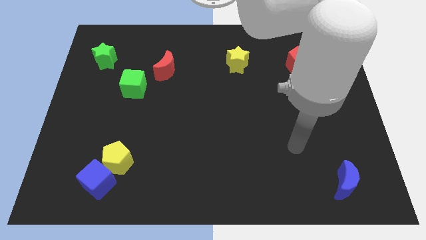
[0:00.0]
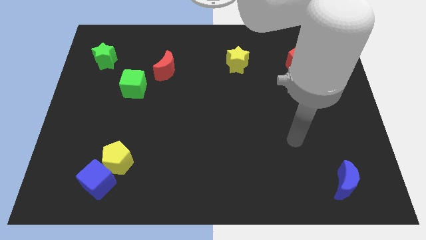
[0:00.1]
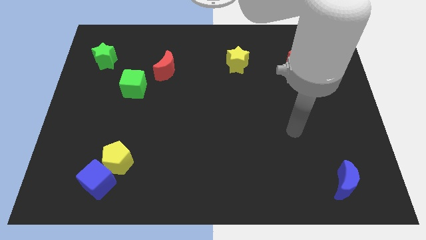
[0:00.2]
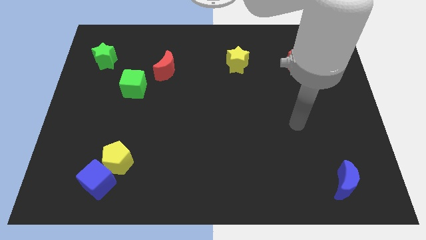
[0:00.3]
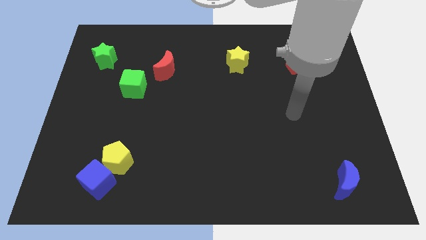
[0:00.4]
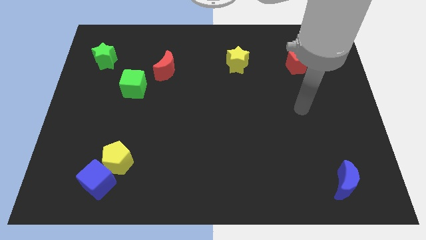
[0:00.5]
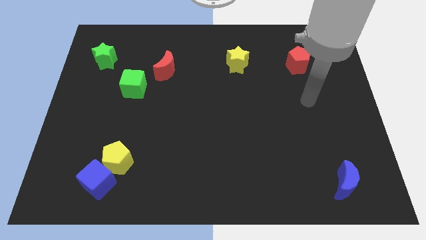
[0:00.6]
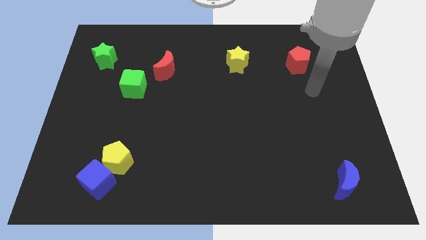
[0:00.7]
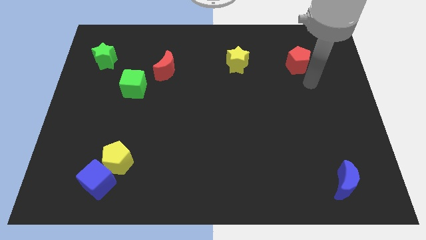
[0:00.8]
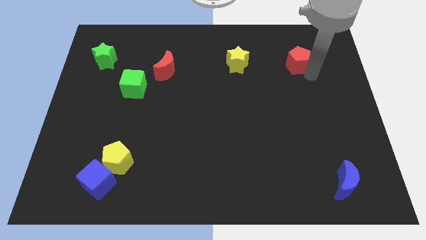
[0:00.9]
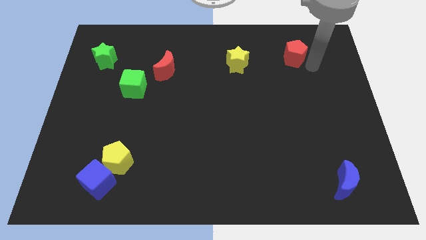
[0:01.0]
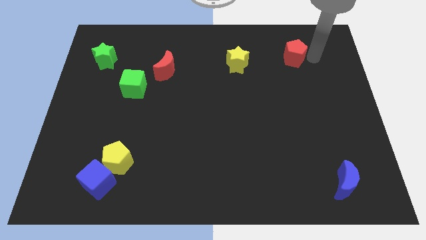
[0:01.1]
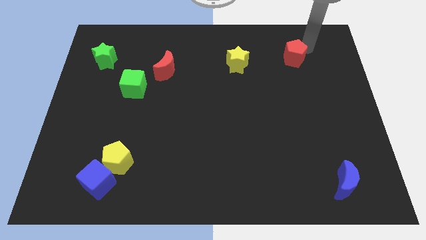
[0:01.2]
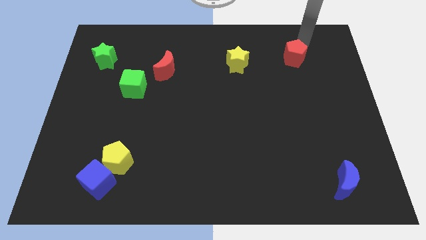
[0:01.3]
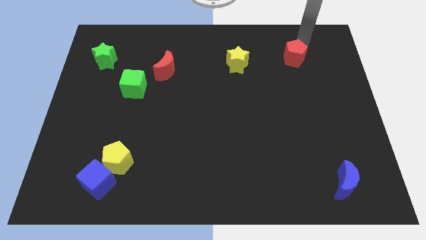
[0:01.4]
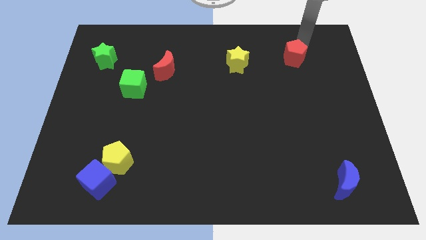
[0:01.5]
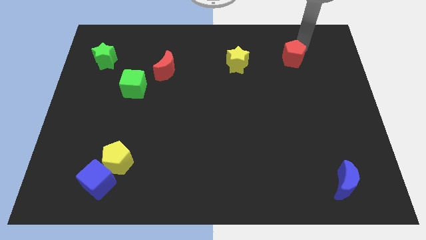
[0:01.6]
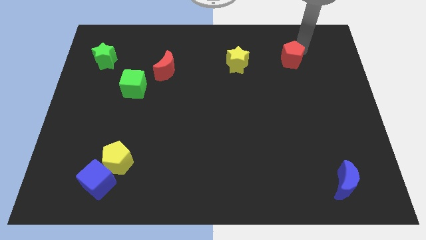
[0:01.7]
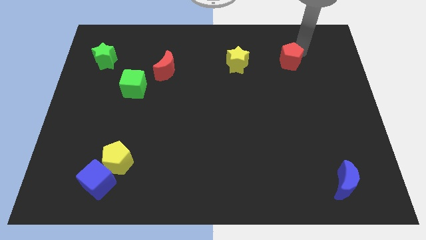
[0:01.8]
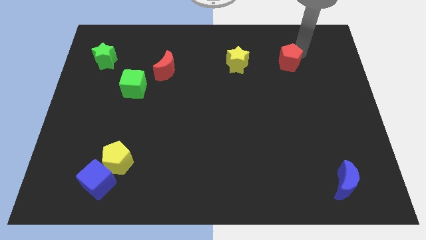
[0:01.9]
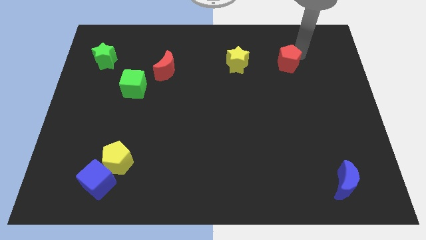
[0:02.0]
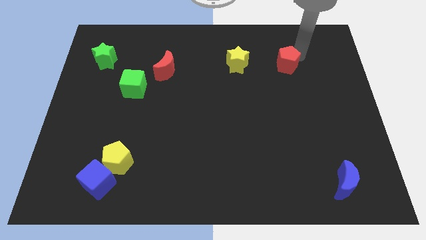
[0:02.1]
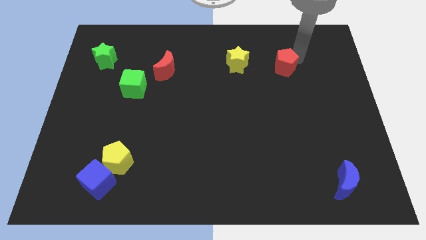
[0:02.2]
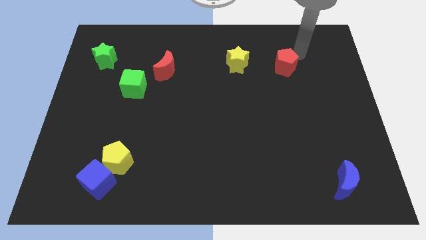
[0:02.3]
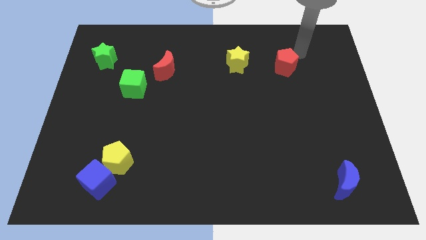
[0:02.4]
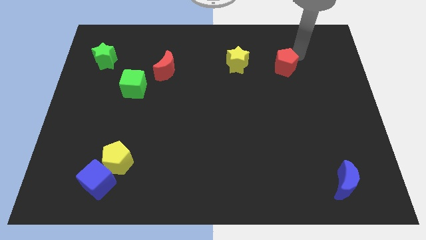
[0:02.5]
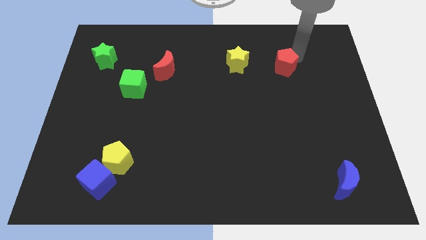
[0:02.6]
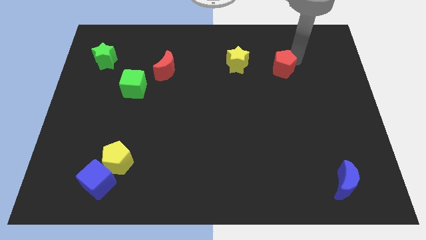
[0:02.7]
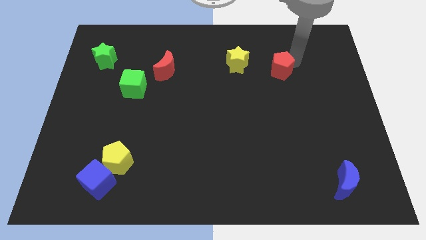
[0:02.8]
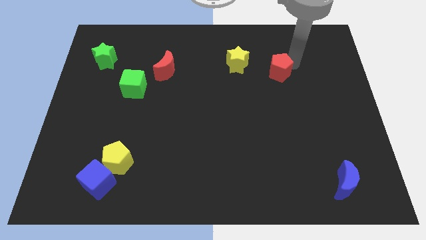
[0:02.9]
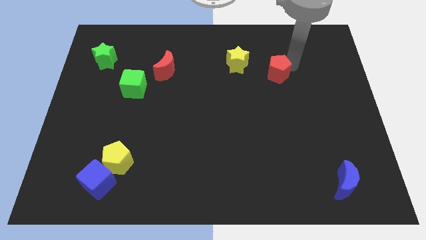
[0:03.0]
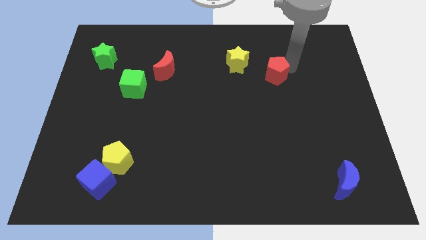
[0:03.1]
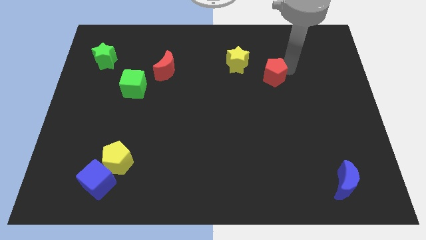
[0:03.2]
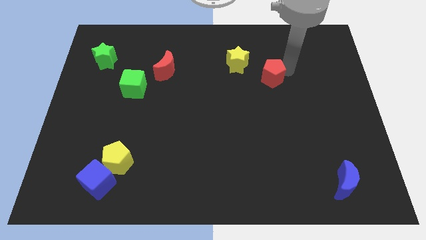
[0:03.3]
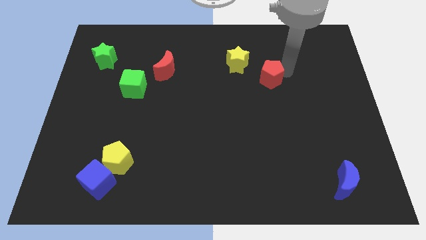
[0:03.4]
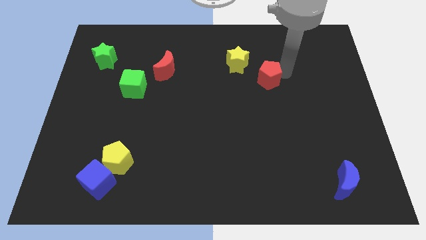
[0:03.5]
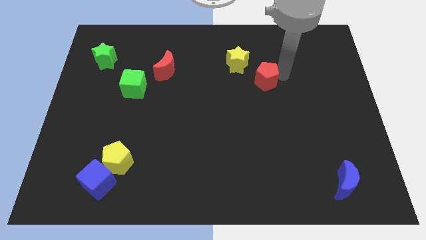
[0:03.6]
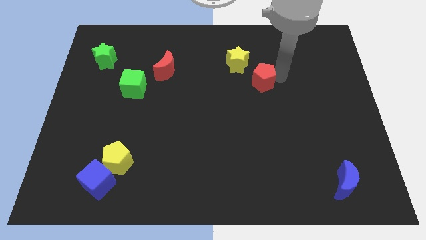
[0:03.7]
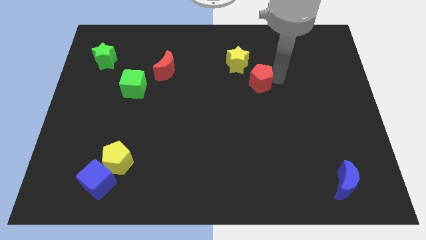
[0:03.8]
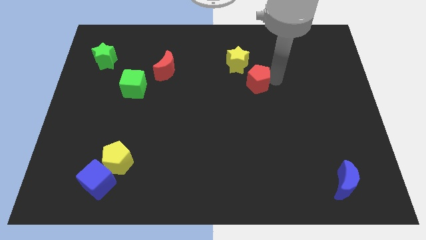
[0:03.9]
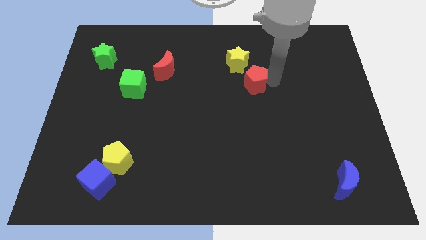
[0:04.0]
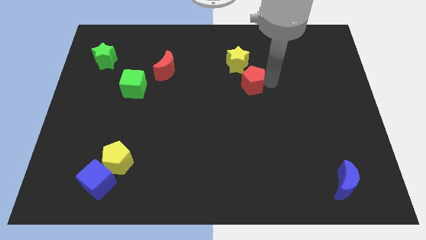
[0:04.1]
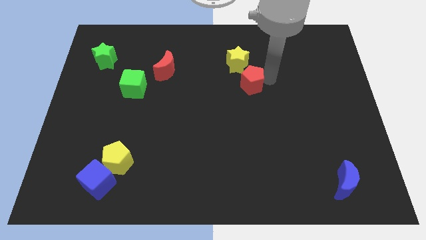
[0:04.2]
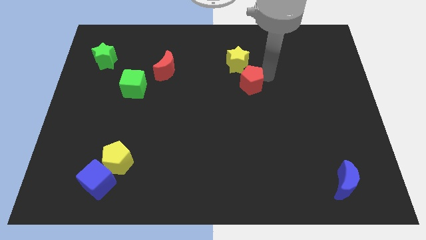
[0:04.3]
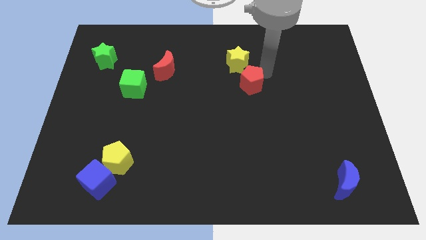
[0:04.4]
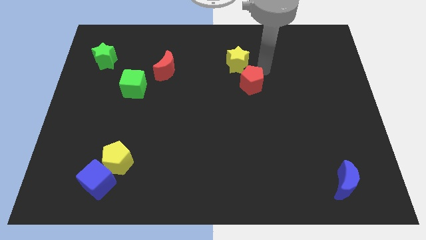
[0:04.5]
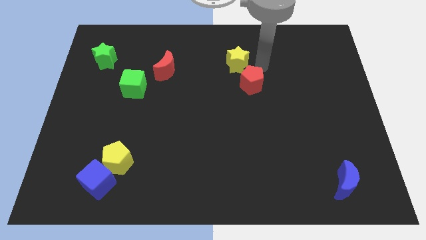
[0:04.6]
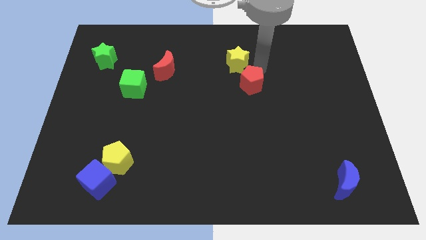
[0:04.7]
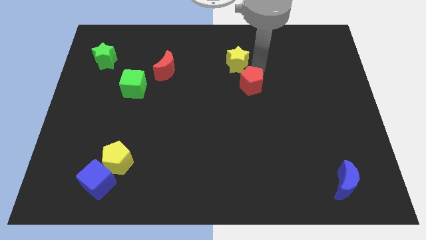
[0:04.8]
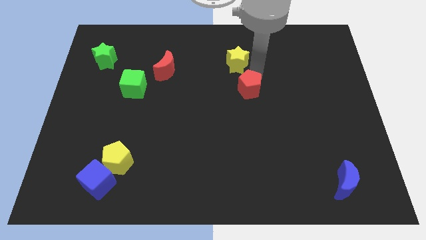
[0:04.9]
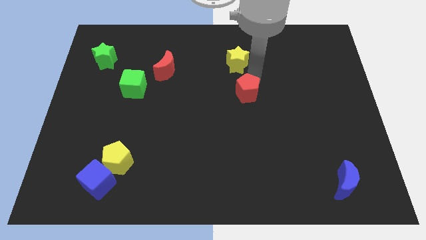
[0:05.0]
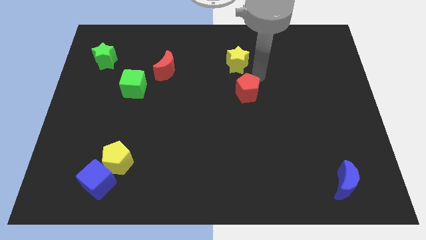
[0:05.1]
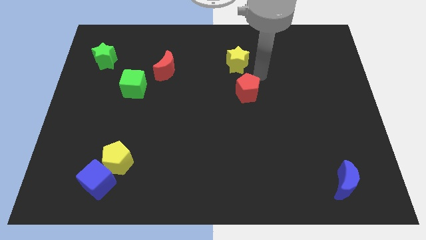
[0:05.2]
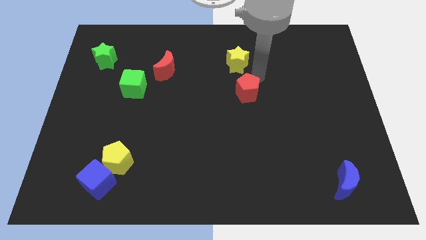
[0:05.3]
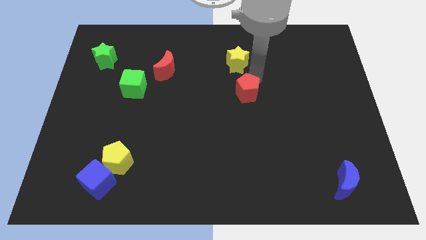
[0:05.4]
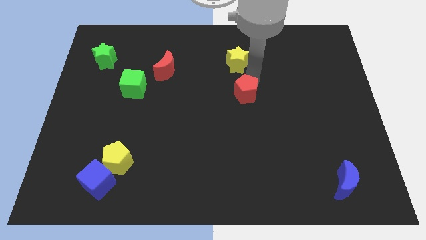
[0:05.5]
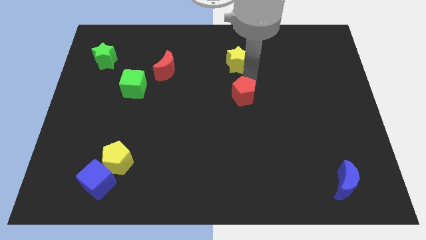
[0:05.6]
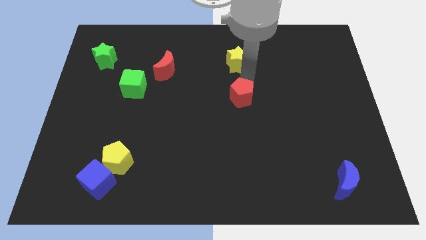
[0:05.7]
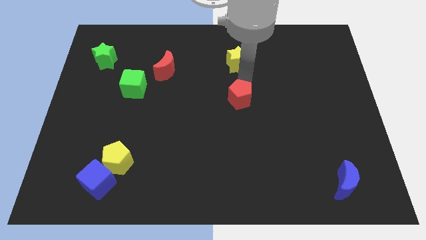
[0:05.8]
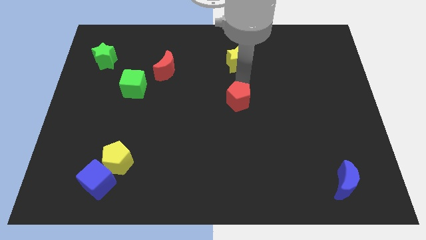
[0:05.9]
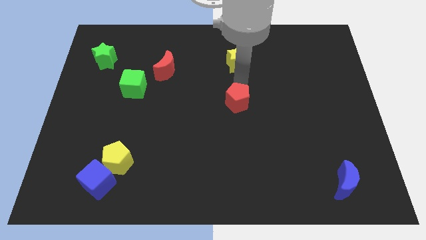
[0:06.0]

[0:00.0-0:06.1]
move the red pentagon down and left

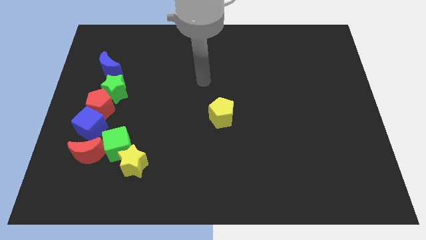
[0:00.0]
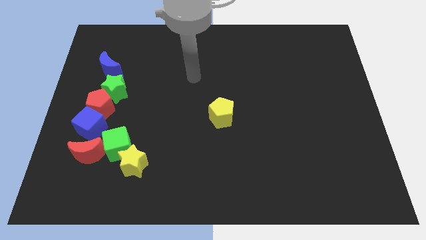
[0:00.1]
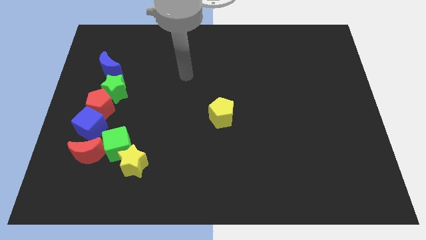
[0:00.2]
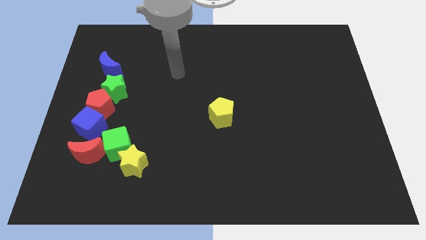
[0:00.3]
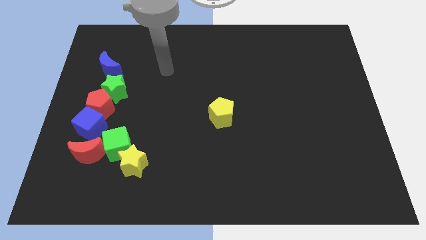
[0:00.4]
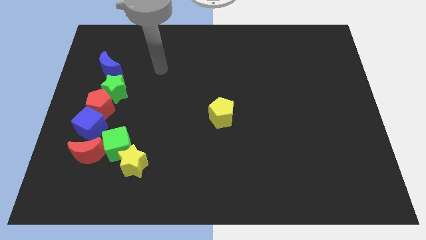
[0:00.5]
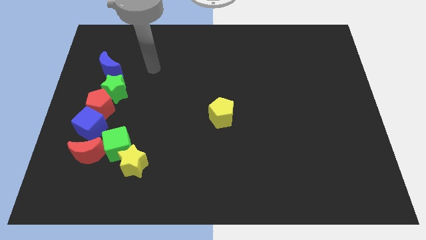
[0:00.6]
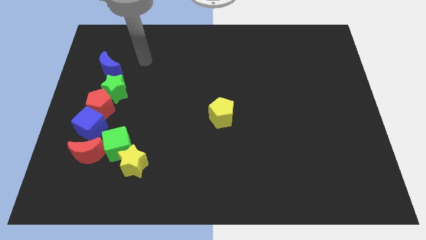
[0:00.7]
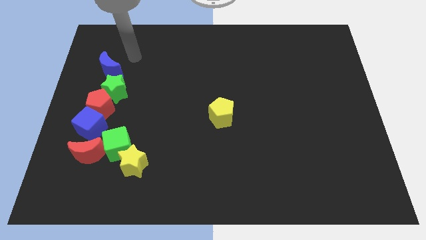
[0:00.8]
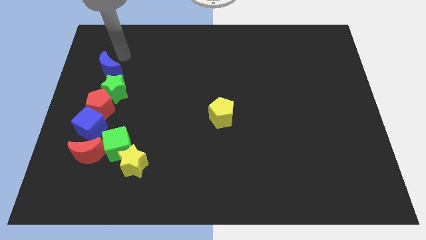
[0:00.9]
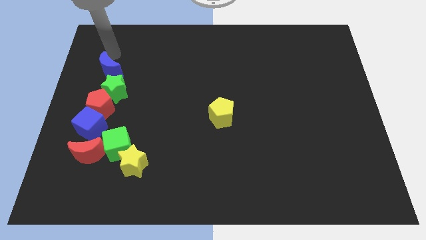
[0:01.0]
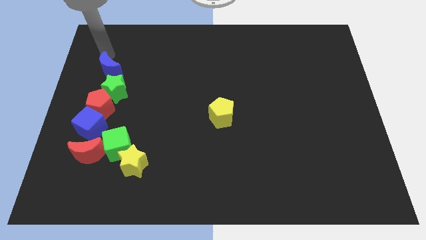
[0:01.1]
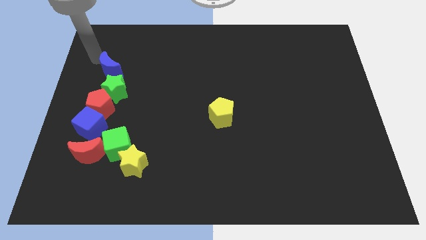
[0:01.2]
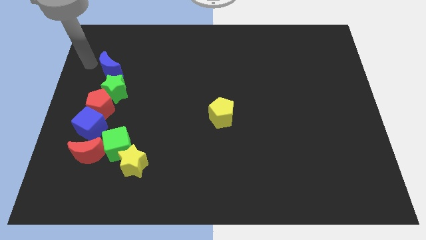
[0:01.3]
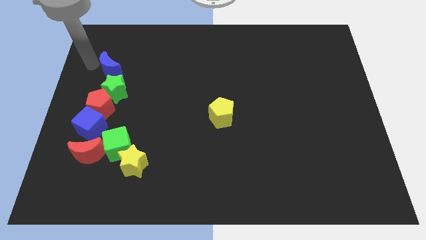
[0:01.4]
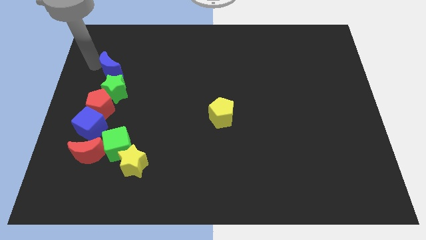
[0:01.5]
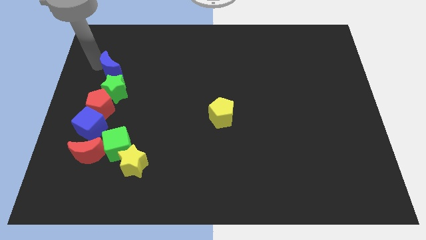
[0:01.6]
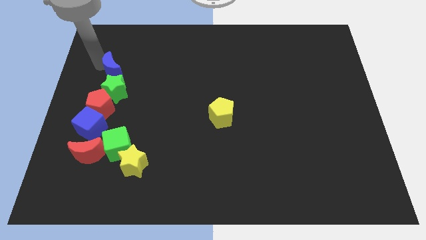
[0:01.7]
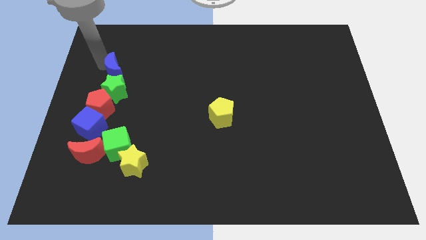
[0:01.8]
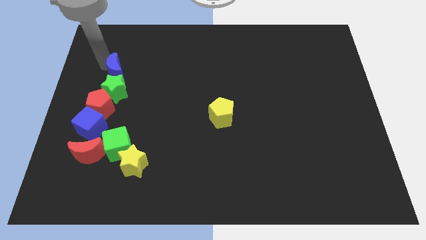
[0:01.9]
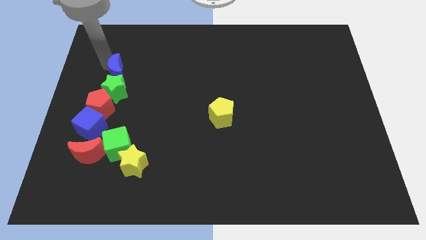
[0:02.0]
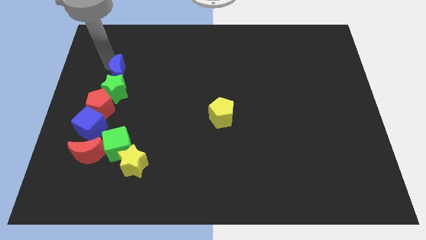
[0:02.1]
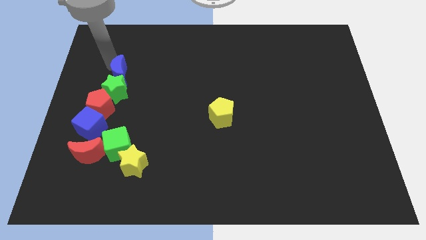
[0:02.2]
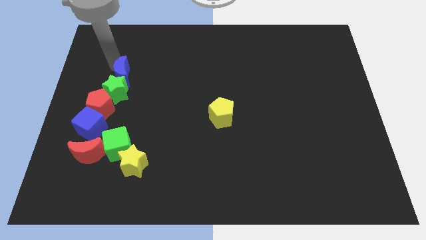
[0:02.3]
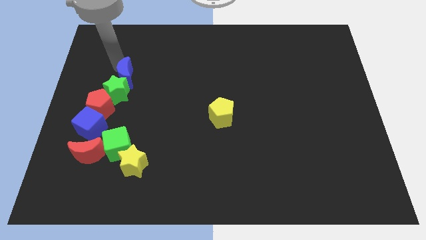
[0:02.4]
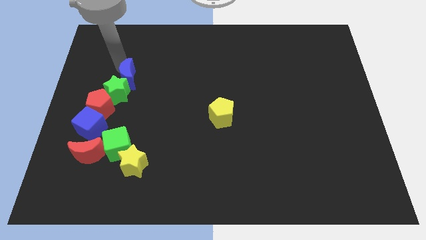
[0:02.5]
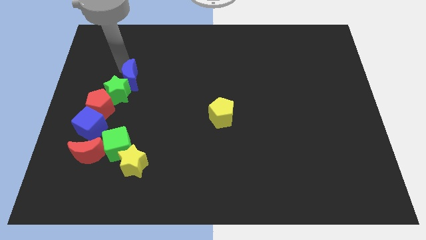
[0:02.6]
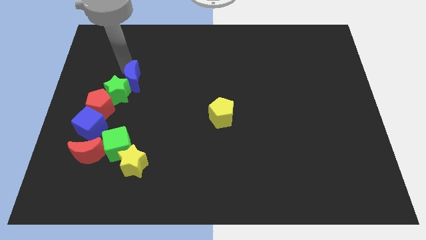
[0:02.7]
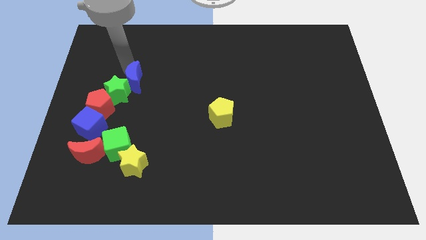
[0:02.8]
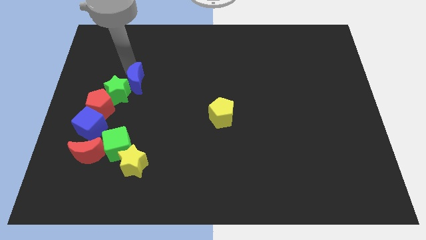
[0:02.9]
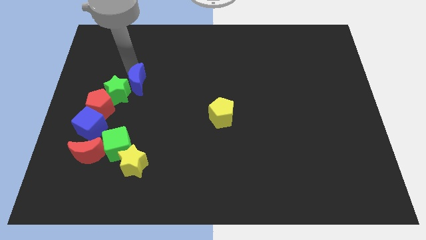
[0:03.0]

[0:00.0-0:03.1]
slide the blue moon to the right somewhat
